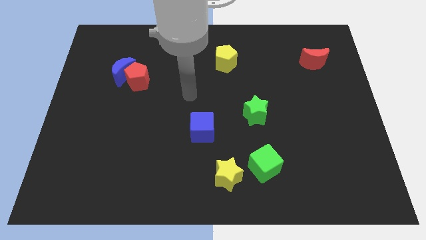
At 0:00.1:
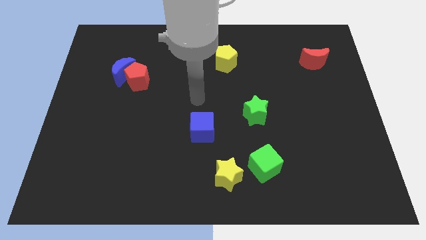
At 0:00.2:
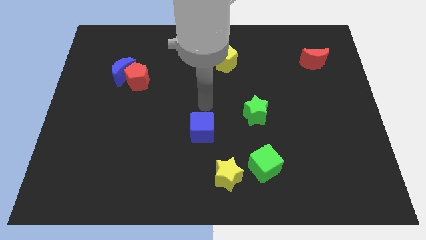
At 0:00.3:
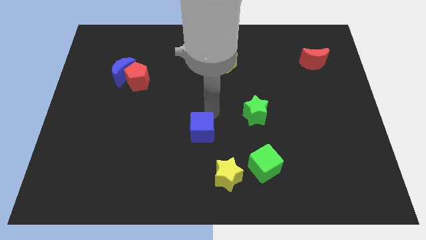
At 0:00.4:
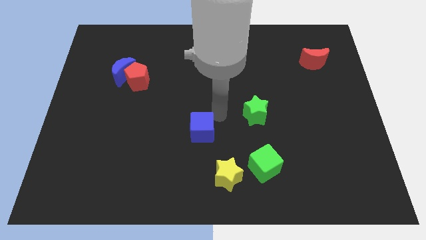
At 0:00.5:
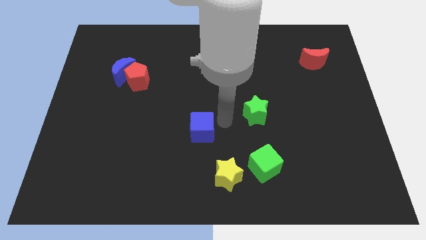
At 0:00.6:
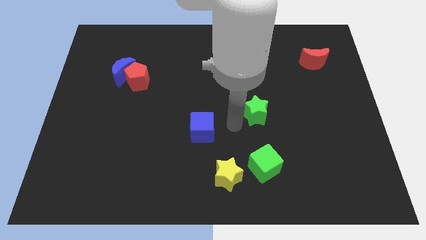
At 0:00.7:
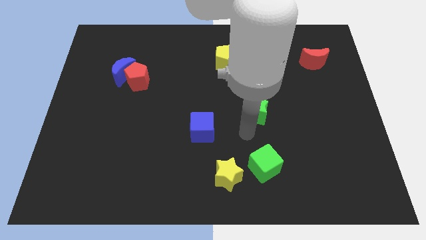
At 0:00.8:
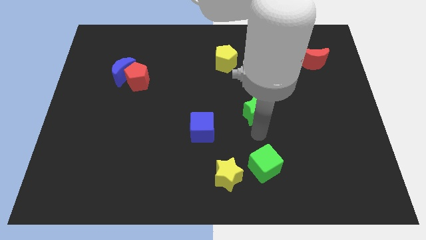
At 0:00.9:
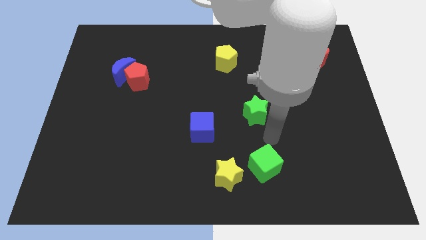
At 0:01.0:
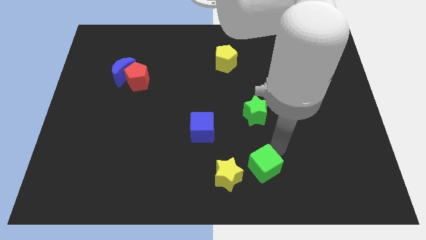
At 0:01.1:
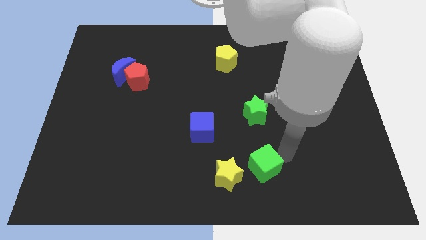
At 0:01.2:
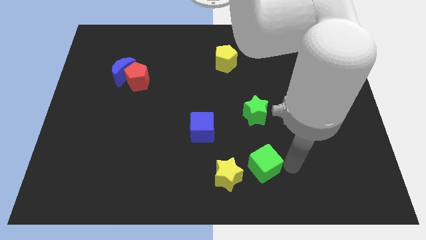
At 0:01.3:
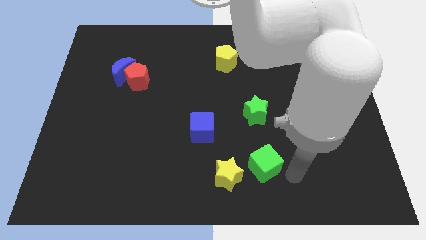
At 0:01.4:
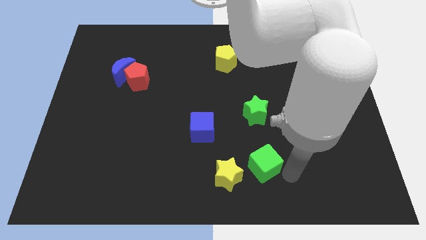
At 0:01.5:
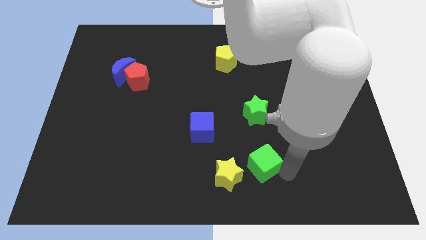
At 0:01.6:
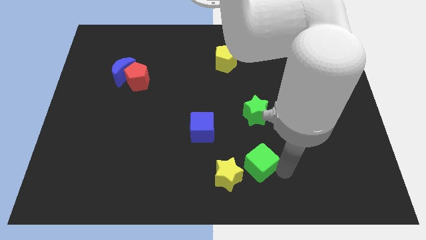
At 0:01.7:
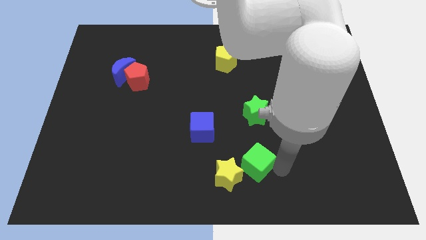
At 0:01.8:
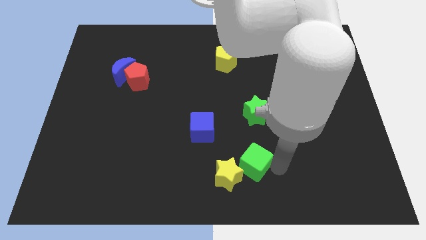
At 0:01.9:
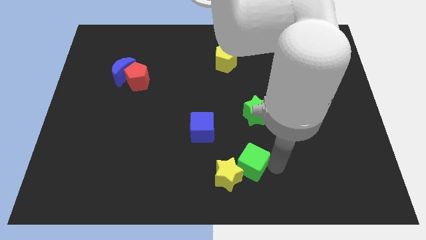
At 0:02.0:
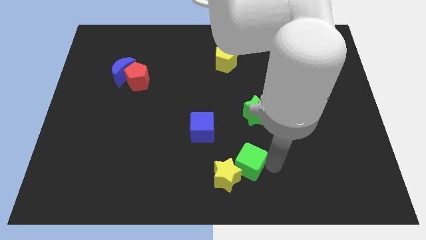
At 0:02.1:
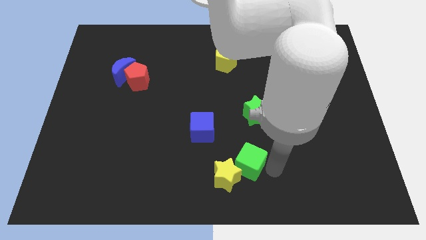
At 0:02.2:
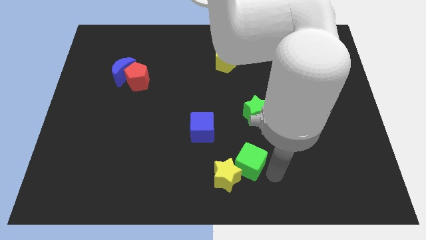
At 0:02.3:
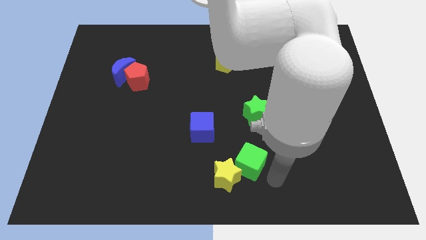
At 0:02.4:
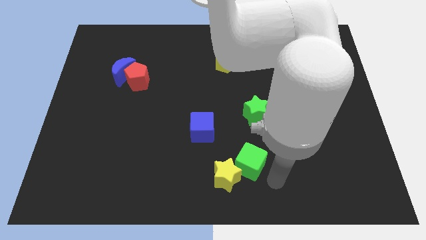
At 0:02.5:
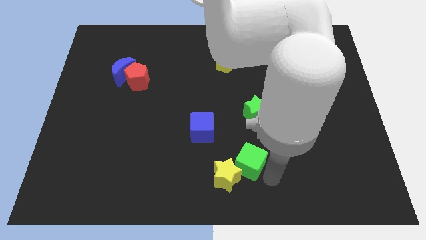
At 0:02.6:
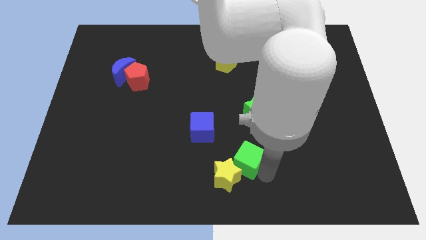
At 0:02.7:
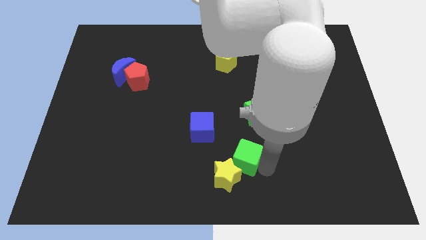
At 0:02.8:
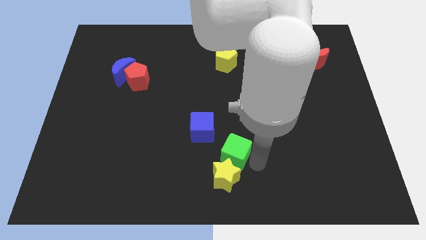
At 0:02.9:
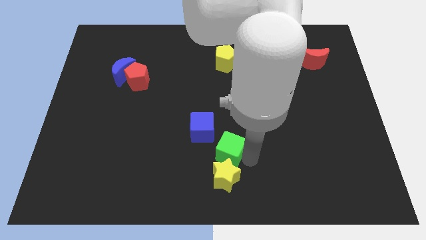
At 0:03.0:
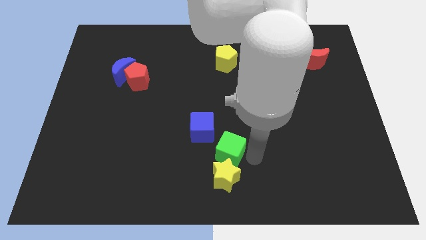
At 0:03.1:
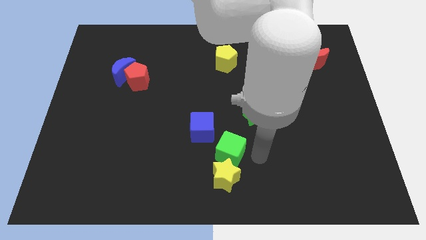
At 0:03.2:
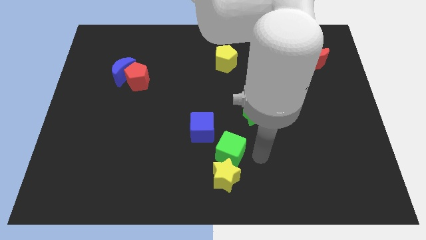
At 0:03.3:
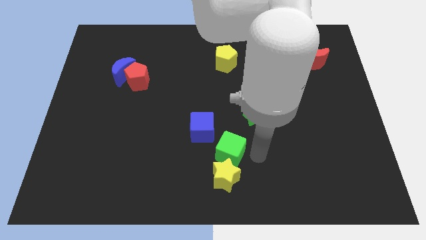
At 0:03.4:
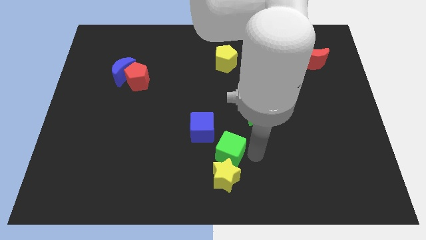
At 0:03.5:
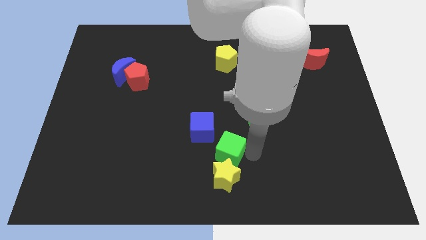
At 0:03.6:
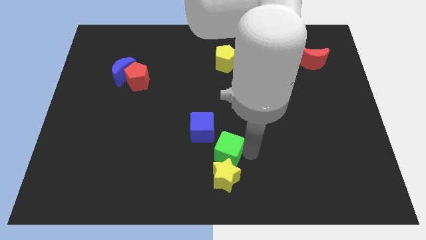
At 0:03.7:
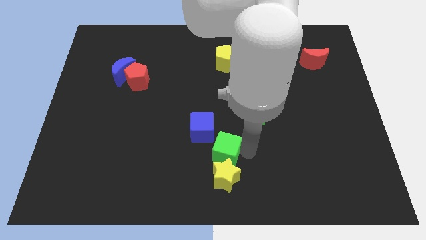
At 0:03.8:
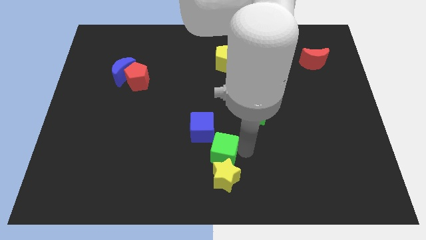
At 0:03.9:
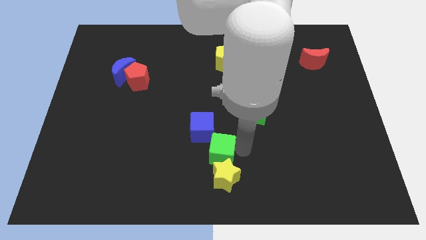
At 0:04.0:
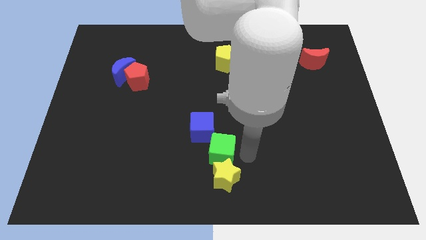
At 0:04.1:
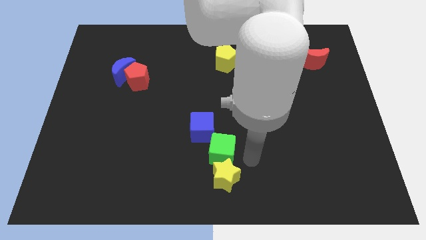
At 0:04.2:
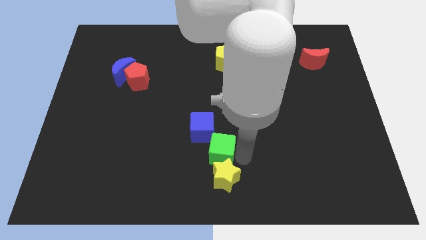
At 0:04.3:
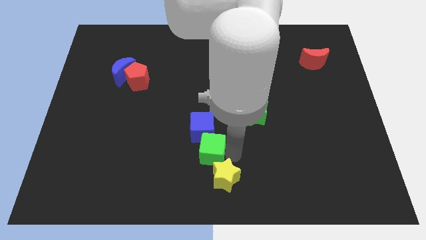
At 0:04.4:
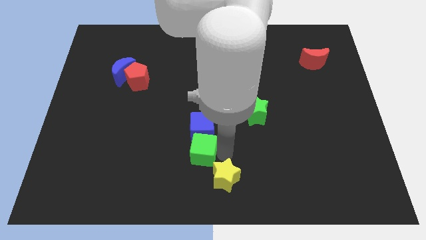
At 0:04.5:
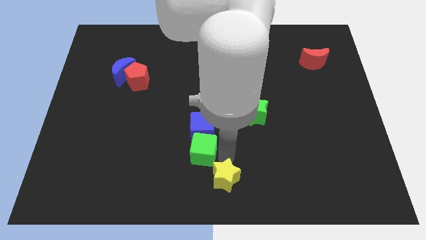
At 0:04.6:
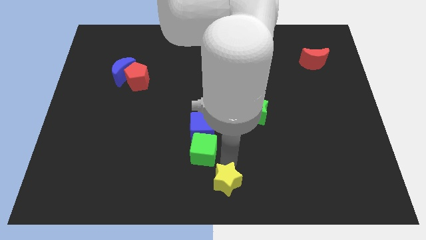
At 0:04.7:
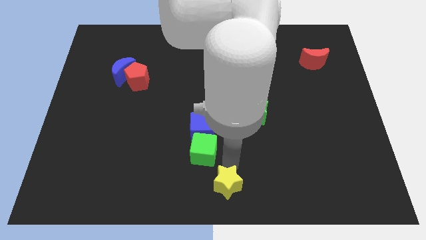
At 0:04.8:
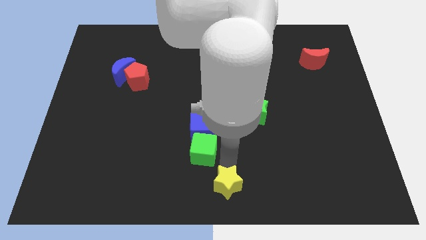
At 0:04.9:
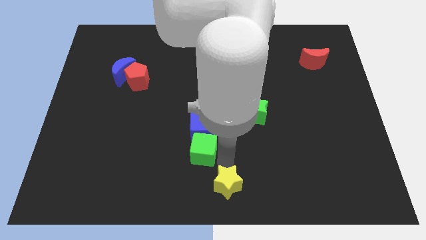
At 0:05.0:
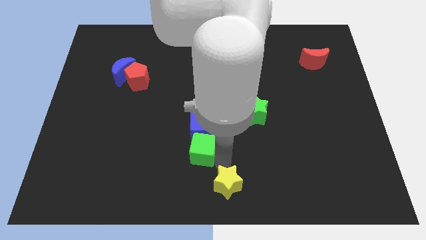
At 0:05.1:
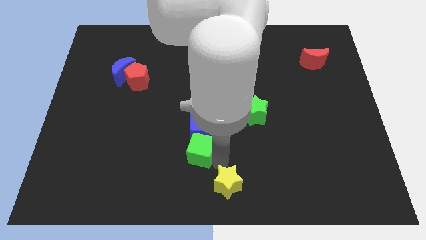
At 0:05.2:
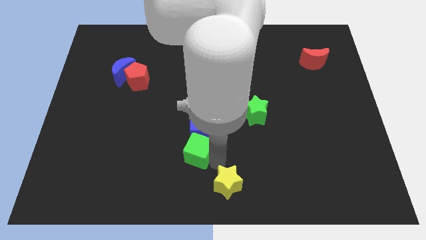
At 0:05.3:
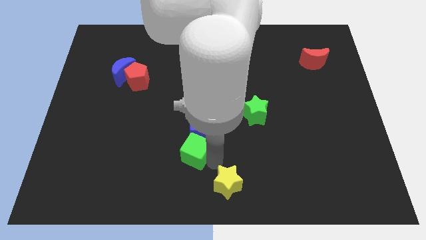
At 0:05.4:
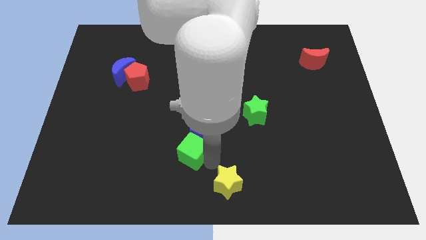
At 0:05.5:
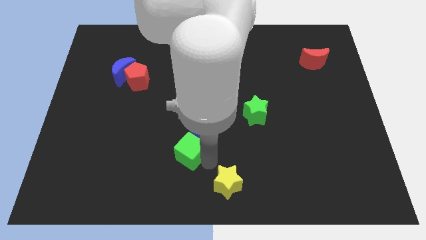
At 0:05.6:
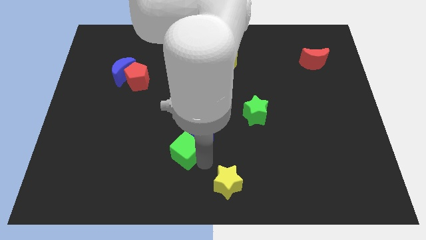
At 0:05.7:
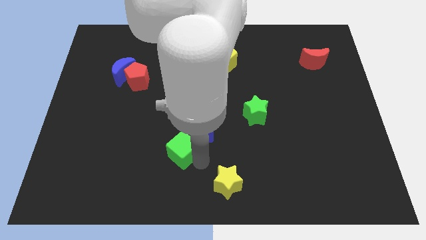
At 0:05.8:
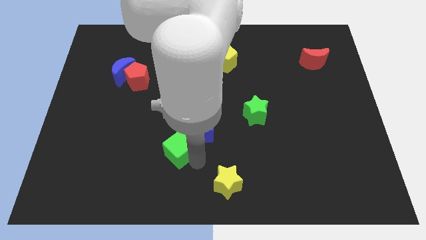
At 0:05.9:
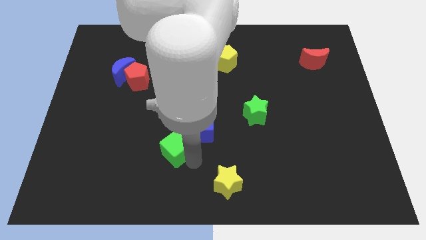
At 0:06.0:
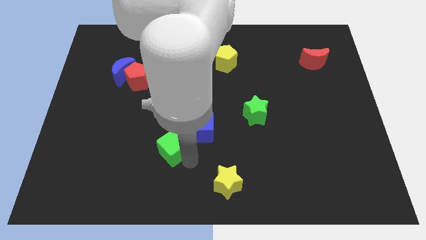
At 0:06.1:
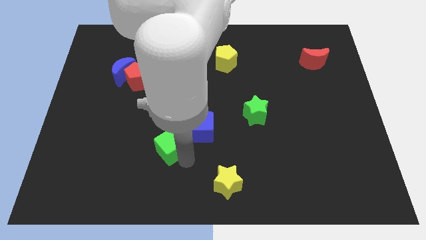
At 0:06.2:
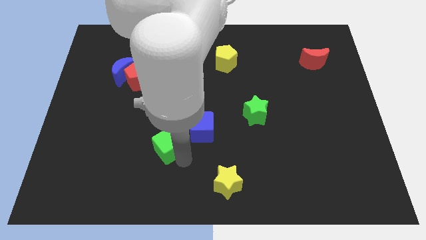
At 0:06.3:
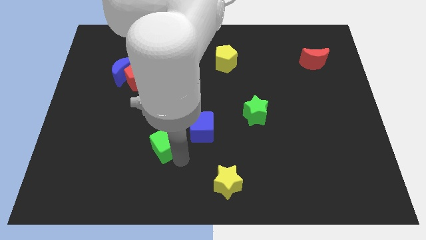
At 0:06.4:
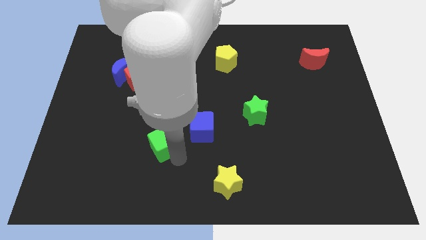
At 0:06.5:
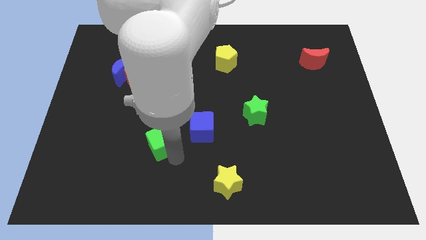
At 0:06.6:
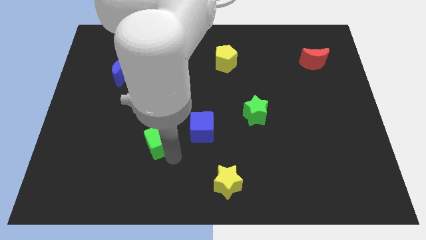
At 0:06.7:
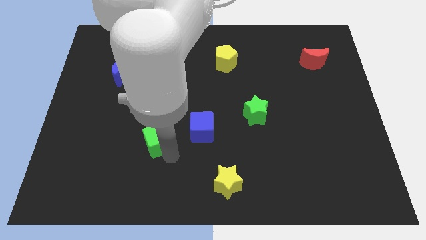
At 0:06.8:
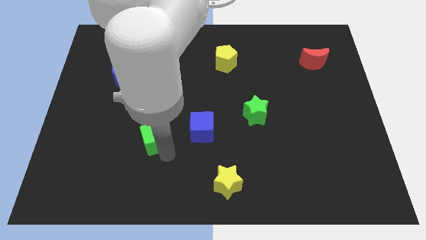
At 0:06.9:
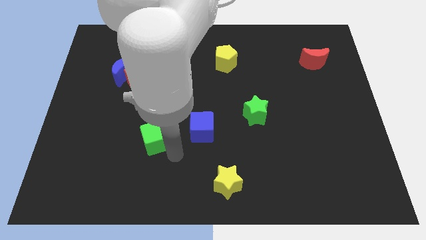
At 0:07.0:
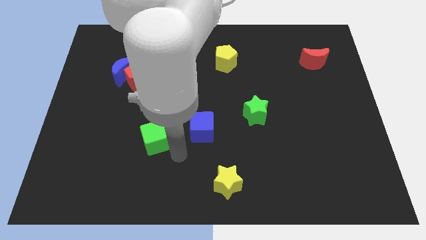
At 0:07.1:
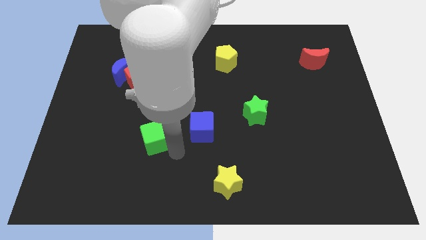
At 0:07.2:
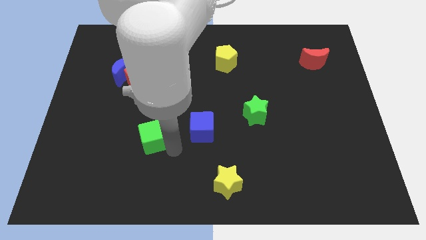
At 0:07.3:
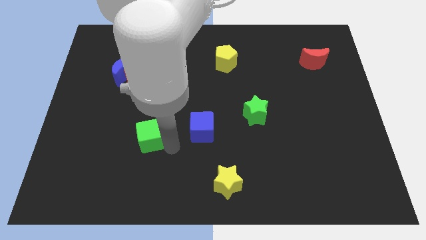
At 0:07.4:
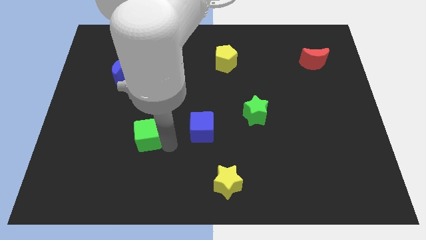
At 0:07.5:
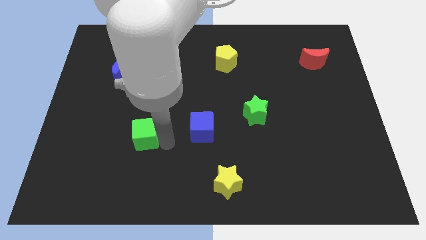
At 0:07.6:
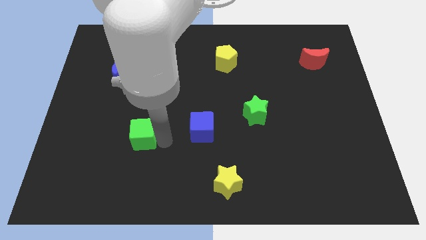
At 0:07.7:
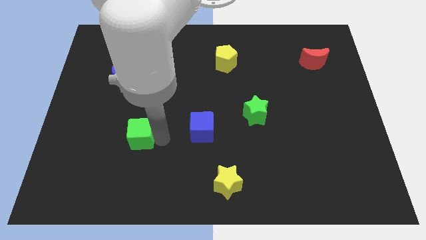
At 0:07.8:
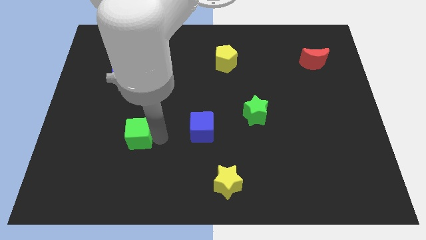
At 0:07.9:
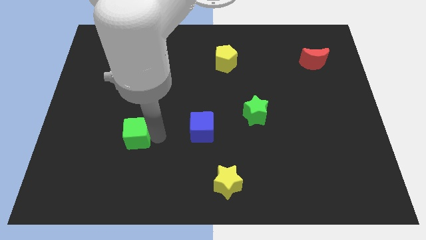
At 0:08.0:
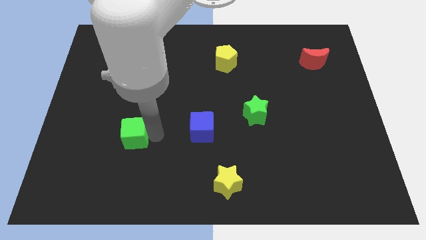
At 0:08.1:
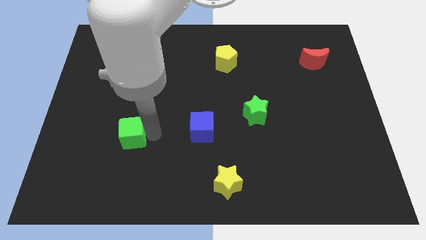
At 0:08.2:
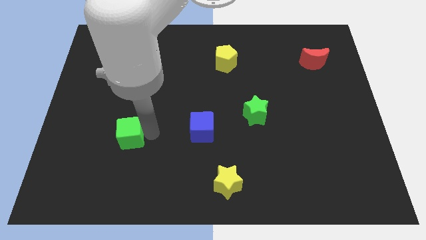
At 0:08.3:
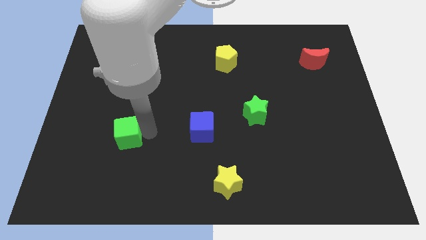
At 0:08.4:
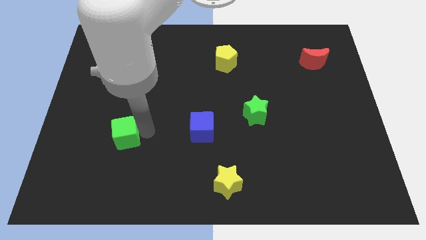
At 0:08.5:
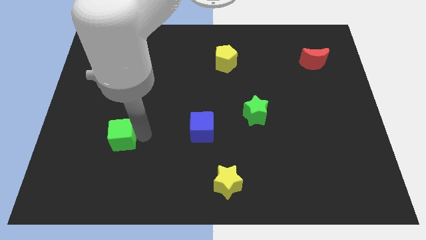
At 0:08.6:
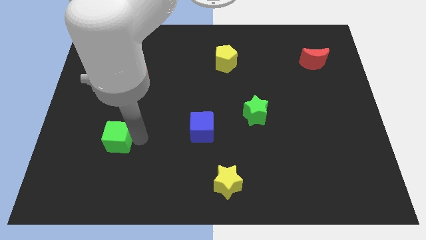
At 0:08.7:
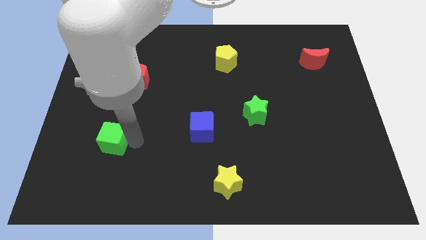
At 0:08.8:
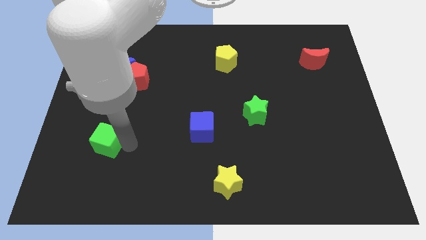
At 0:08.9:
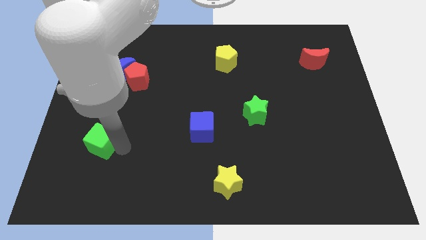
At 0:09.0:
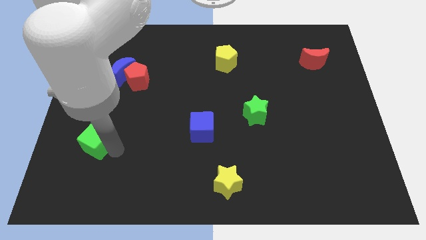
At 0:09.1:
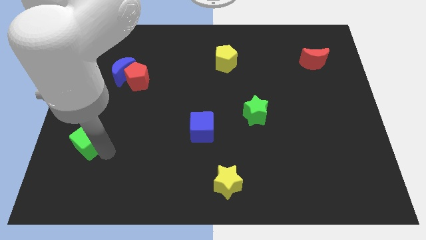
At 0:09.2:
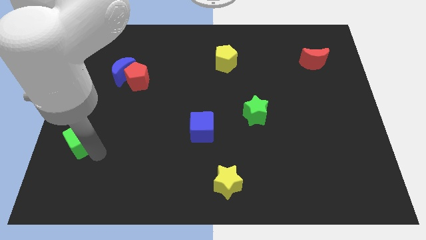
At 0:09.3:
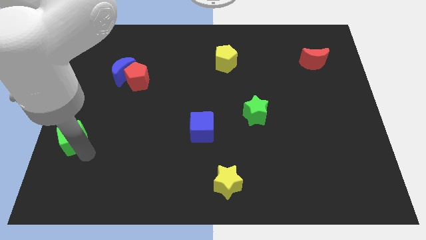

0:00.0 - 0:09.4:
move the green cube to the left side
